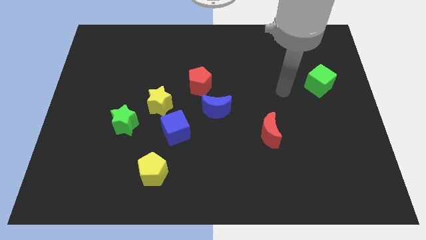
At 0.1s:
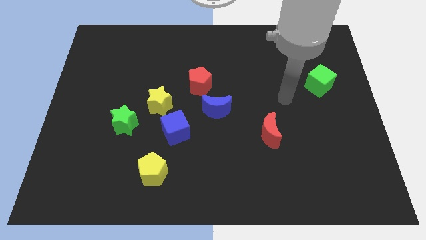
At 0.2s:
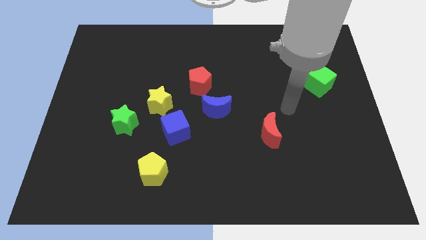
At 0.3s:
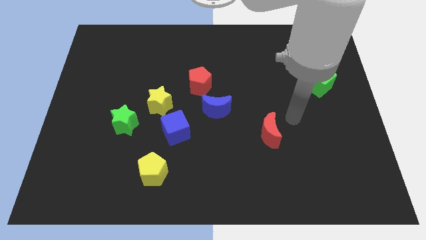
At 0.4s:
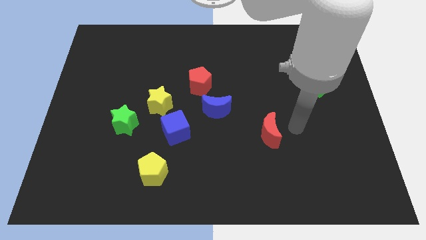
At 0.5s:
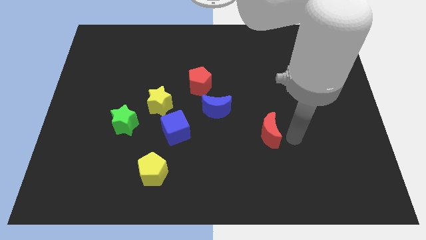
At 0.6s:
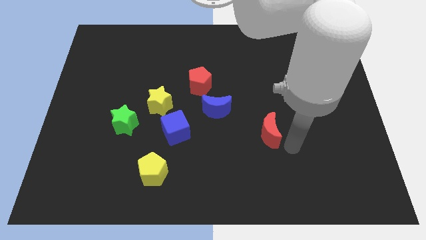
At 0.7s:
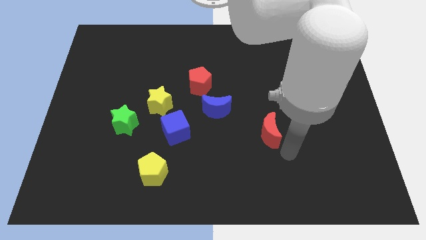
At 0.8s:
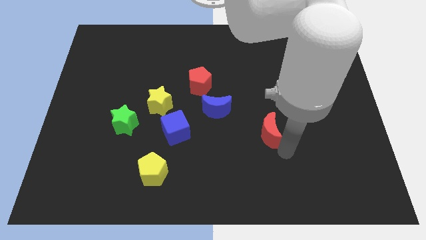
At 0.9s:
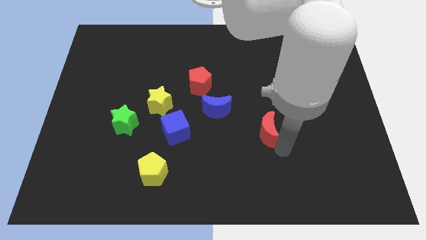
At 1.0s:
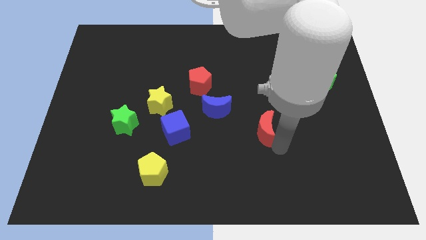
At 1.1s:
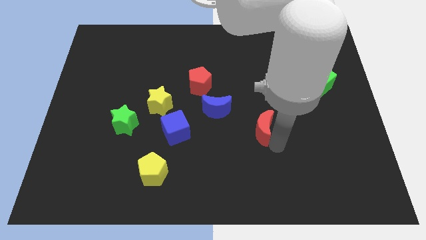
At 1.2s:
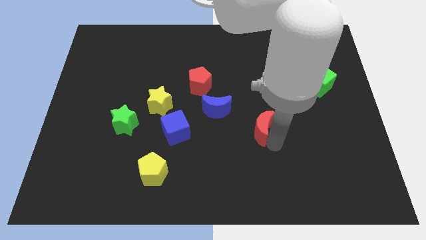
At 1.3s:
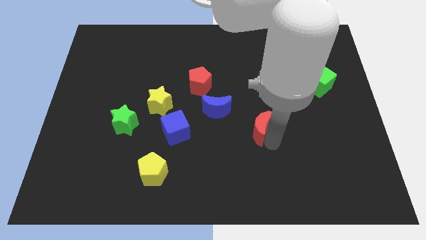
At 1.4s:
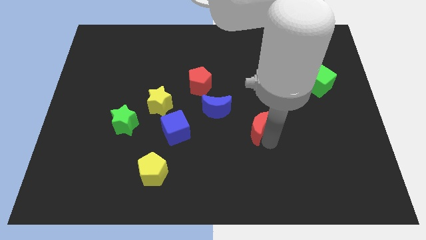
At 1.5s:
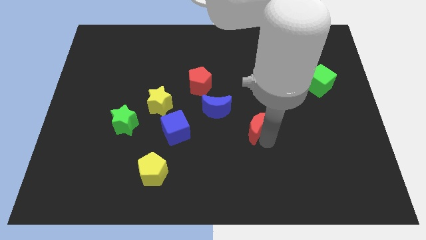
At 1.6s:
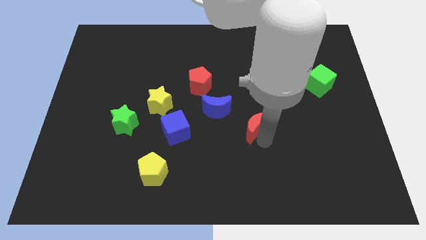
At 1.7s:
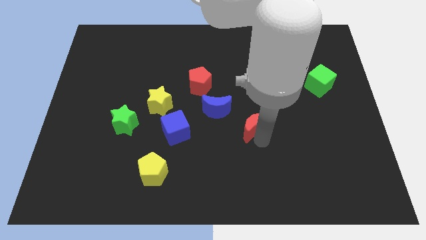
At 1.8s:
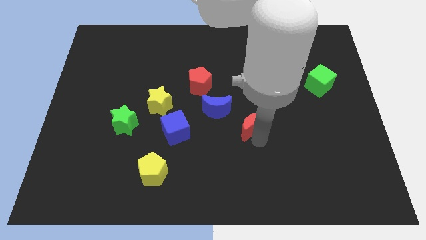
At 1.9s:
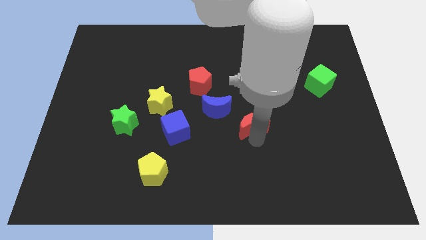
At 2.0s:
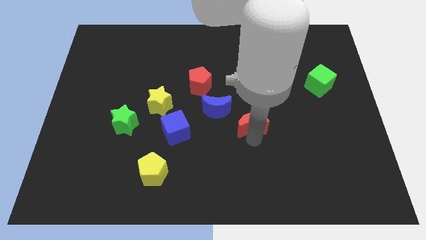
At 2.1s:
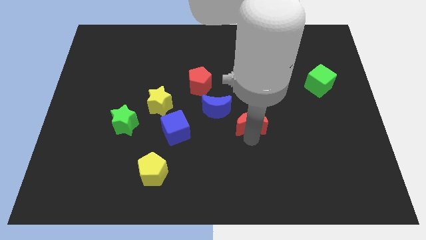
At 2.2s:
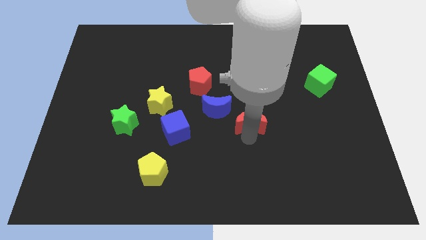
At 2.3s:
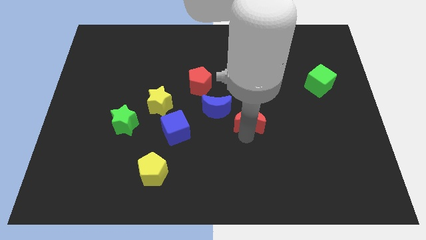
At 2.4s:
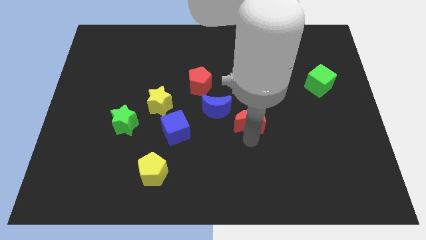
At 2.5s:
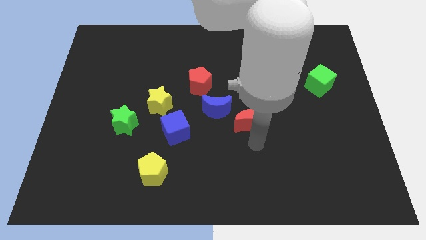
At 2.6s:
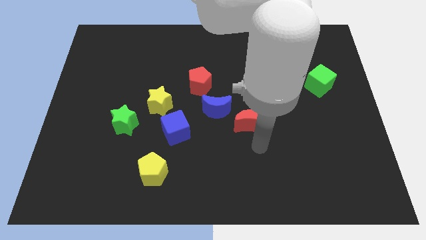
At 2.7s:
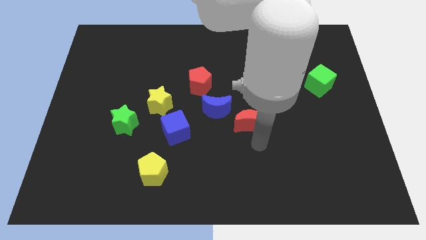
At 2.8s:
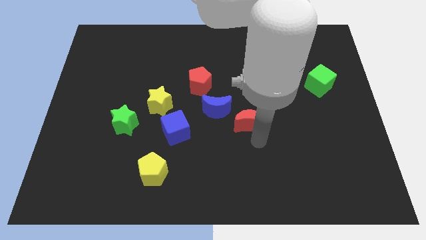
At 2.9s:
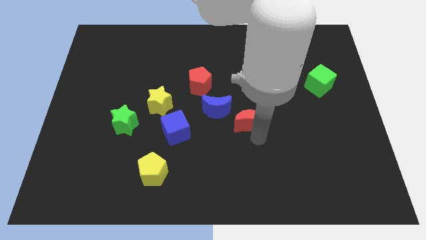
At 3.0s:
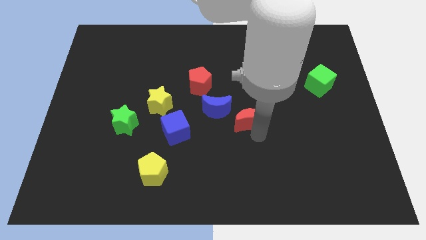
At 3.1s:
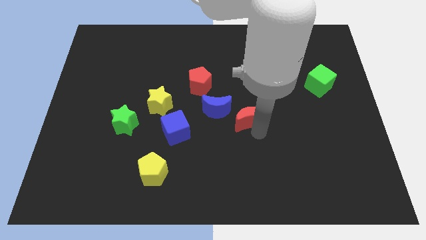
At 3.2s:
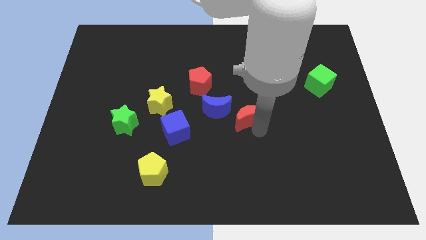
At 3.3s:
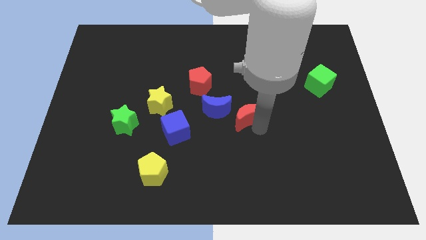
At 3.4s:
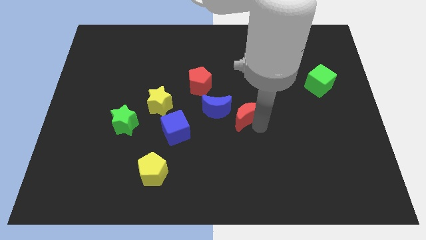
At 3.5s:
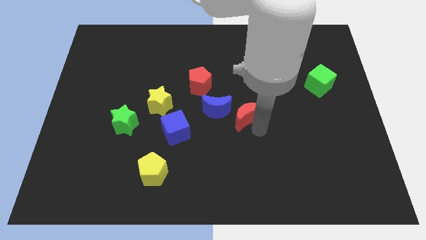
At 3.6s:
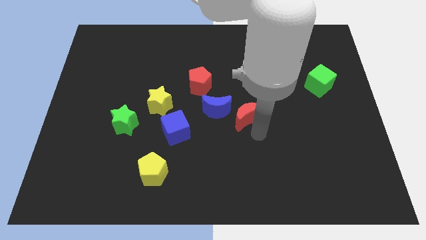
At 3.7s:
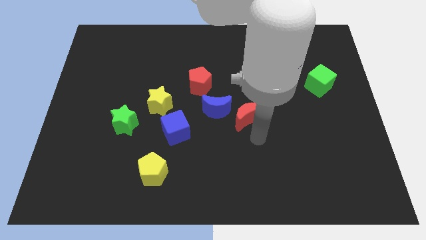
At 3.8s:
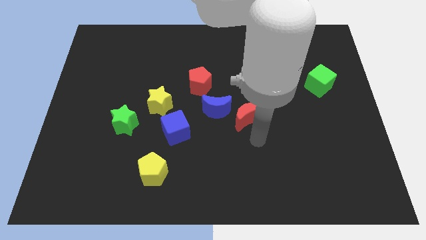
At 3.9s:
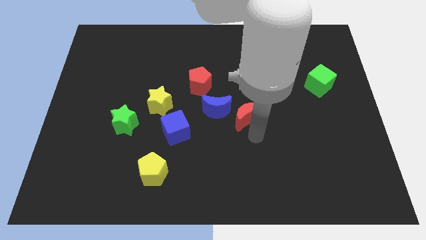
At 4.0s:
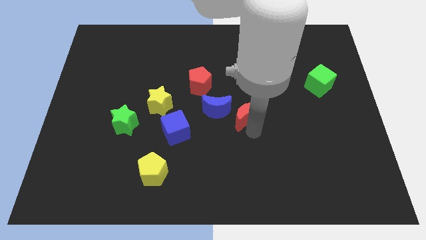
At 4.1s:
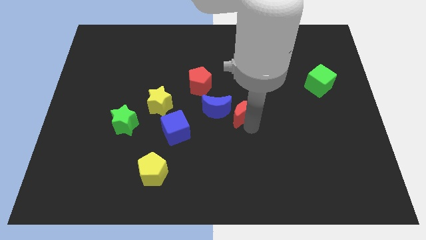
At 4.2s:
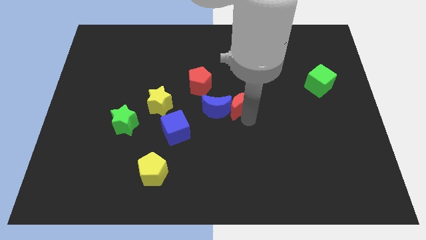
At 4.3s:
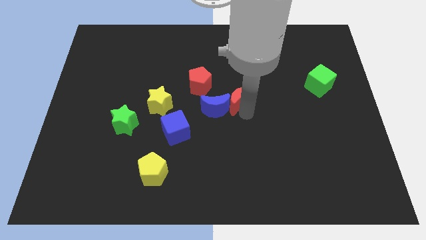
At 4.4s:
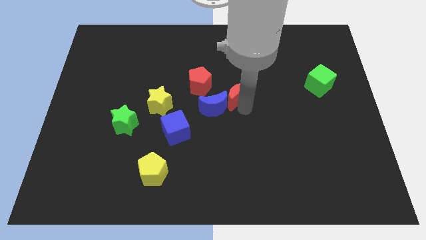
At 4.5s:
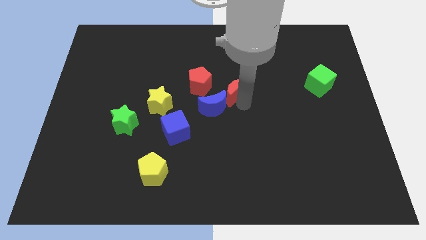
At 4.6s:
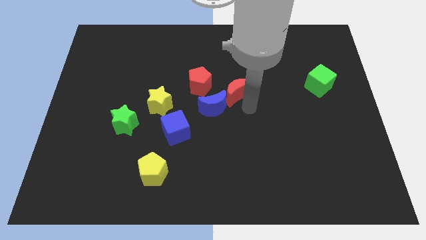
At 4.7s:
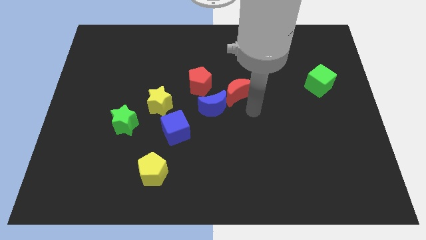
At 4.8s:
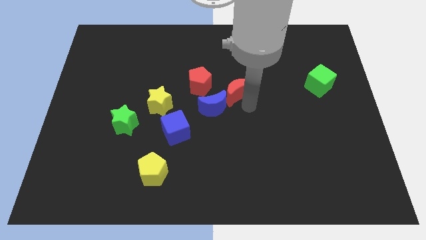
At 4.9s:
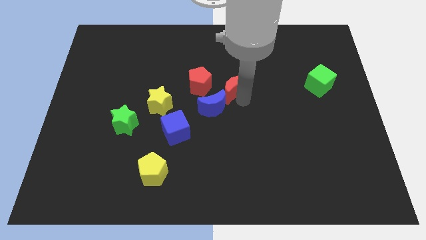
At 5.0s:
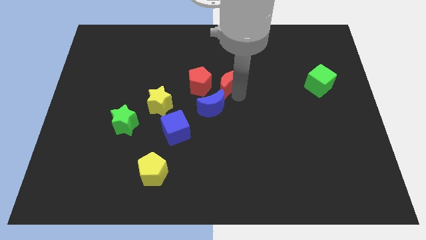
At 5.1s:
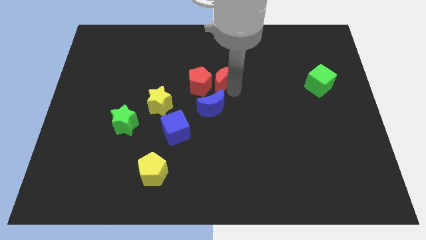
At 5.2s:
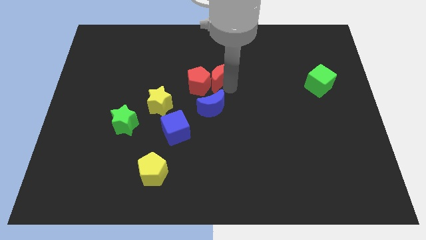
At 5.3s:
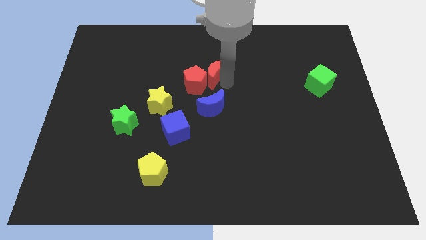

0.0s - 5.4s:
slide the red moon diagonally up and to the left

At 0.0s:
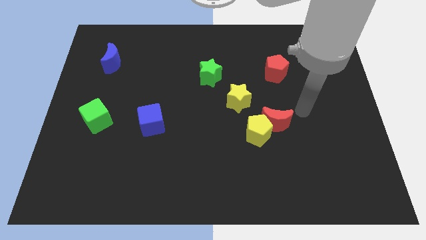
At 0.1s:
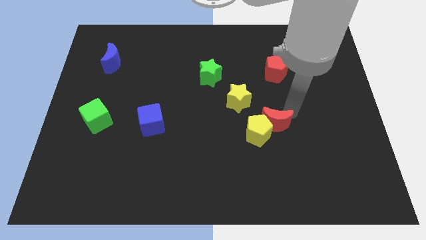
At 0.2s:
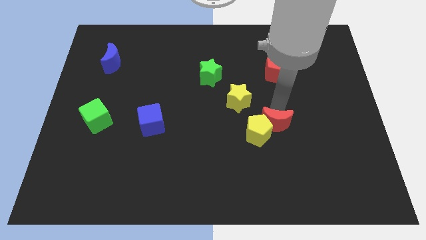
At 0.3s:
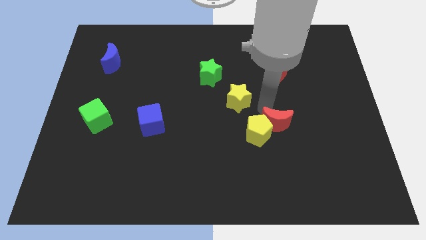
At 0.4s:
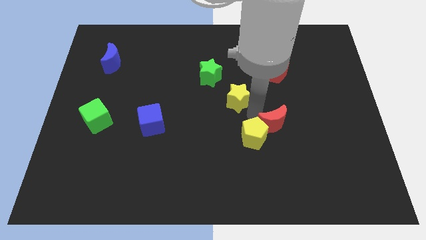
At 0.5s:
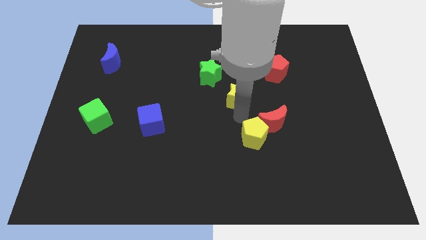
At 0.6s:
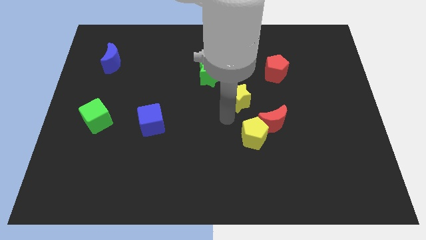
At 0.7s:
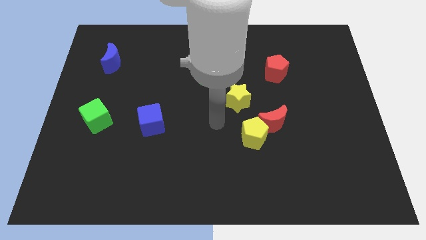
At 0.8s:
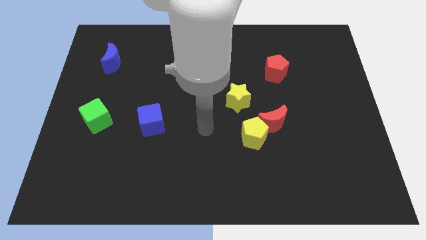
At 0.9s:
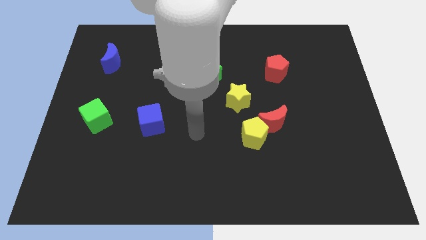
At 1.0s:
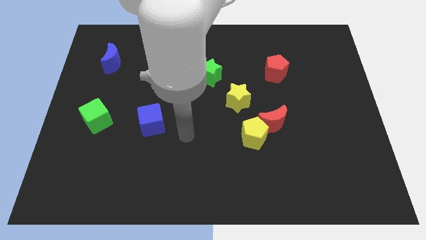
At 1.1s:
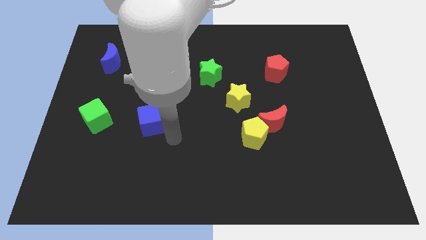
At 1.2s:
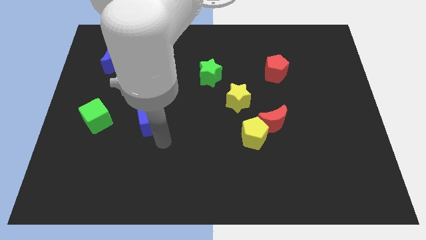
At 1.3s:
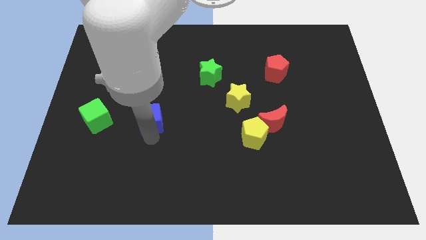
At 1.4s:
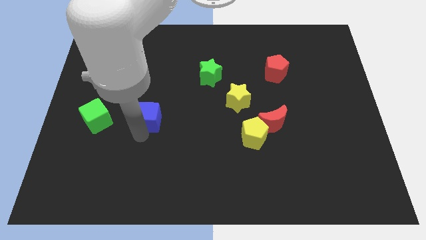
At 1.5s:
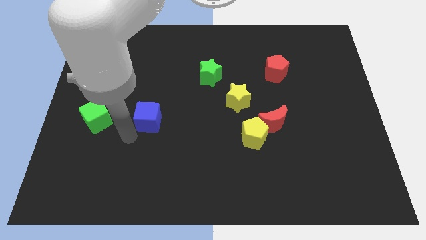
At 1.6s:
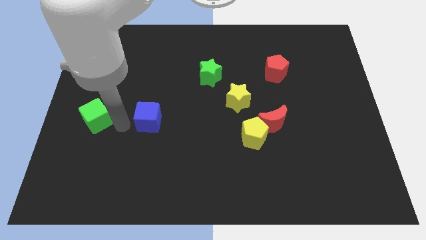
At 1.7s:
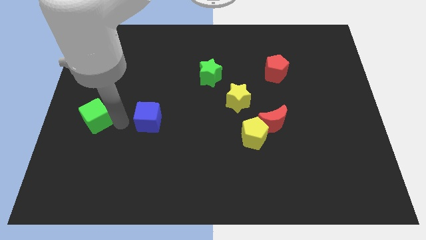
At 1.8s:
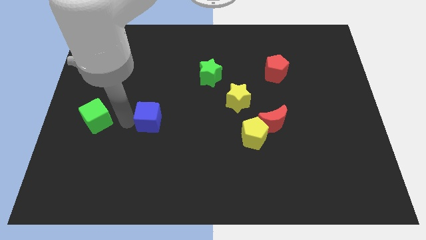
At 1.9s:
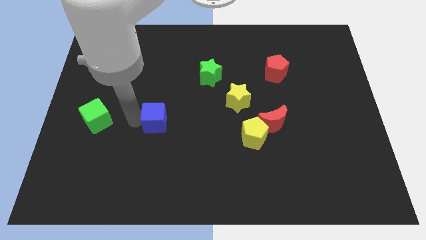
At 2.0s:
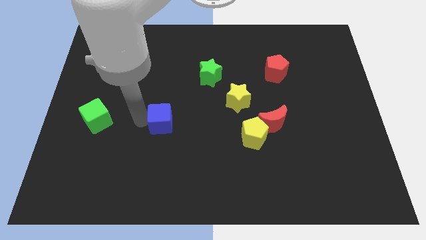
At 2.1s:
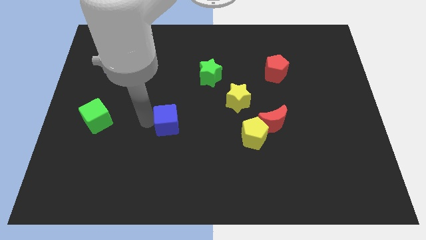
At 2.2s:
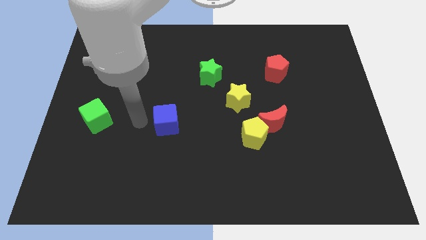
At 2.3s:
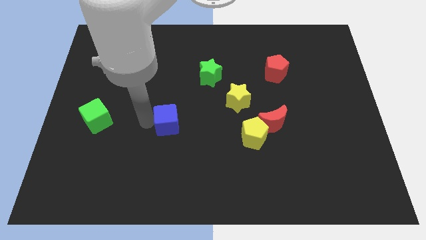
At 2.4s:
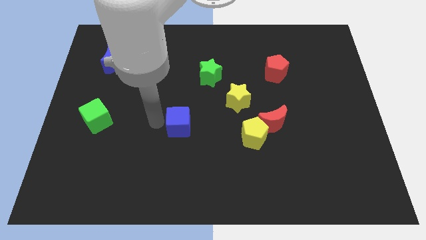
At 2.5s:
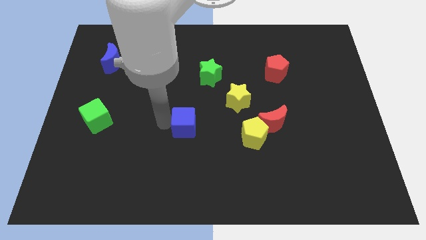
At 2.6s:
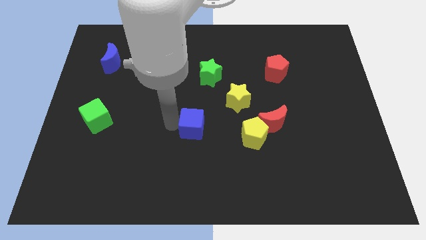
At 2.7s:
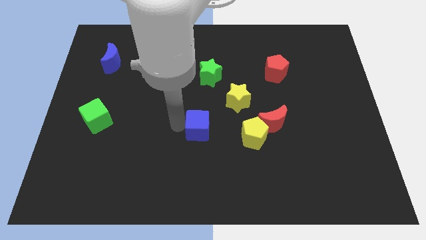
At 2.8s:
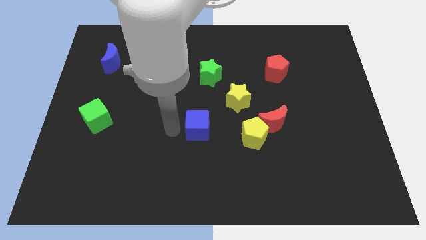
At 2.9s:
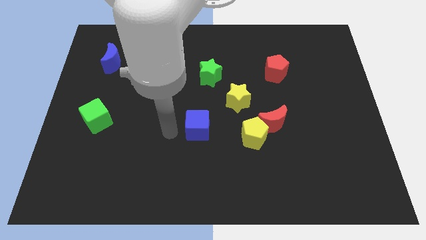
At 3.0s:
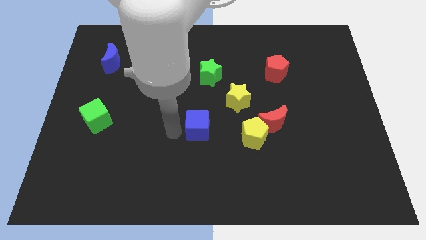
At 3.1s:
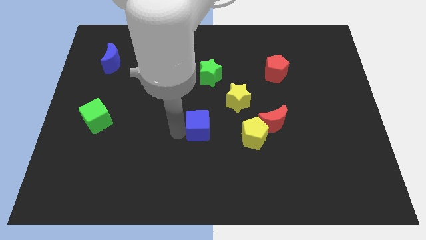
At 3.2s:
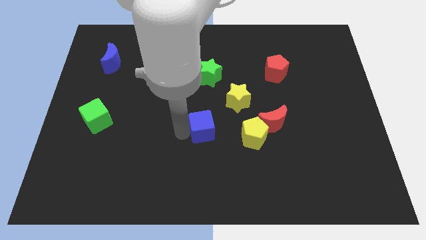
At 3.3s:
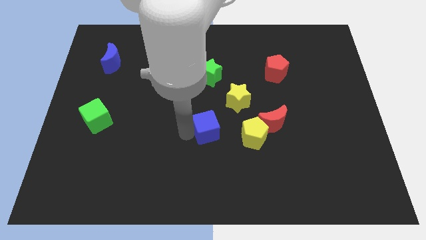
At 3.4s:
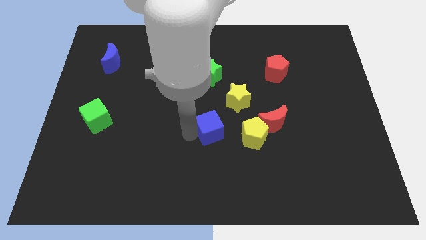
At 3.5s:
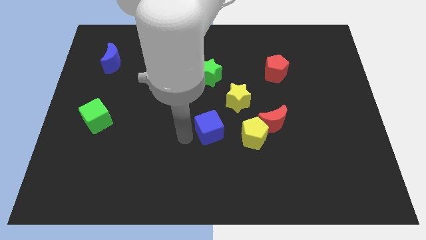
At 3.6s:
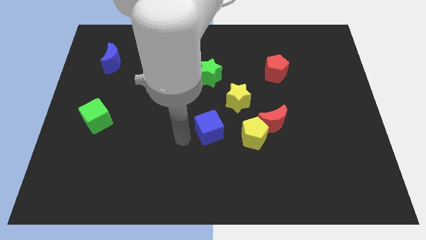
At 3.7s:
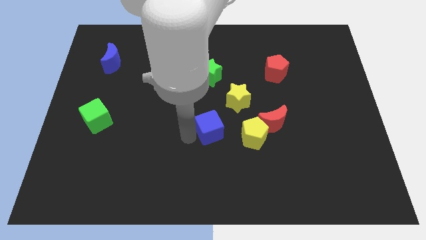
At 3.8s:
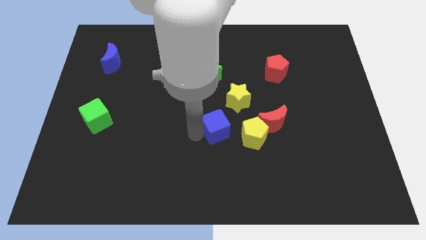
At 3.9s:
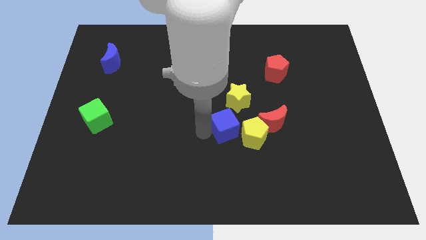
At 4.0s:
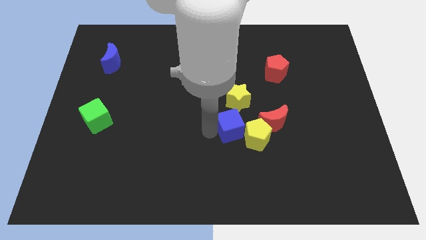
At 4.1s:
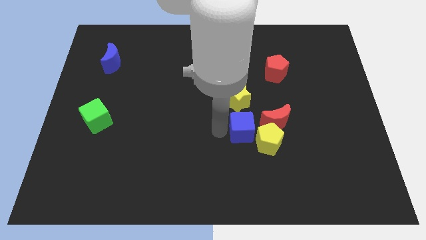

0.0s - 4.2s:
slide the blue cube right
